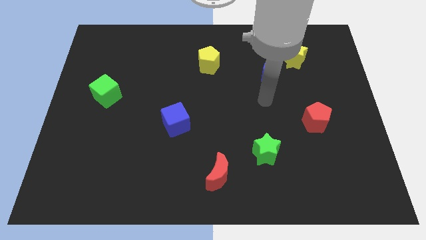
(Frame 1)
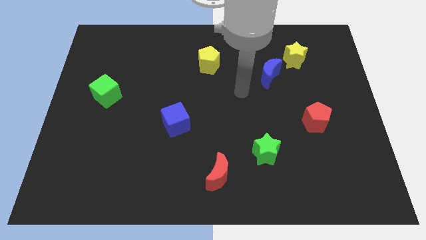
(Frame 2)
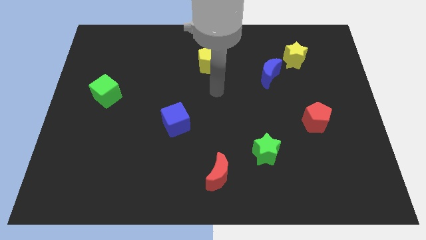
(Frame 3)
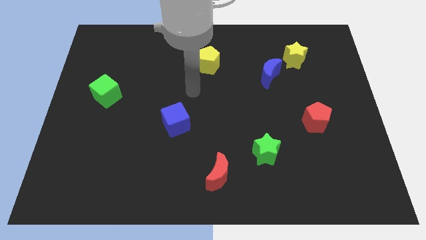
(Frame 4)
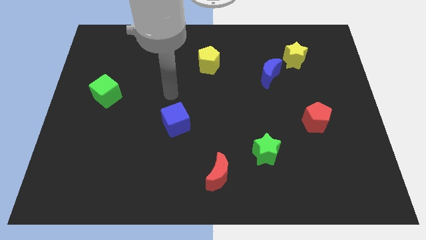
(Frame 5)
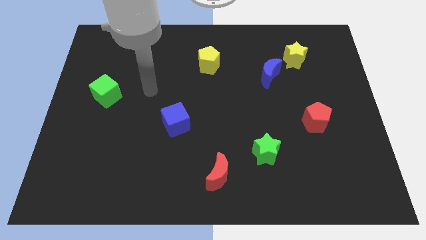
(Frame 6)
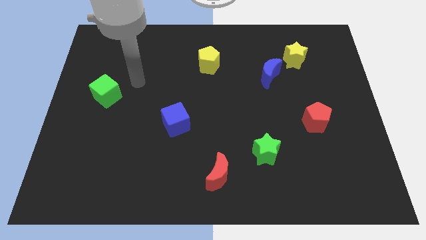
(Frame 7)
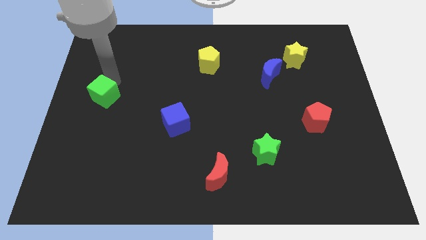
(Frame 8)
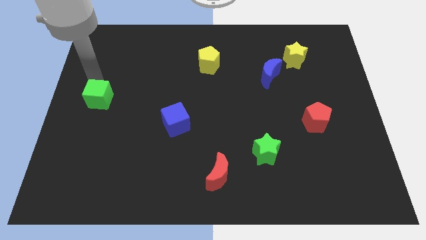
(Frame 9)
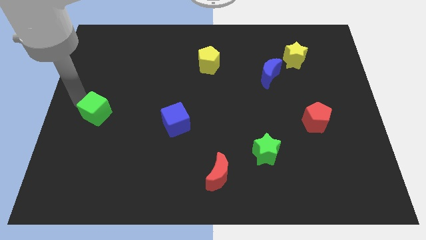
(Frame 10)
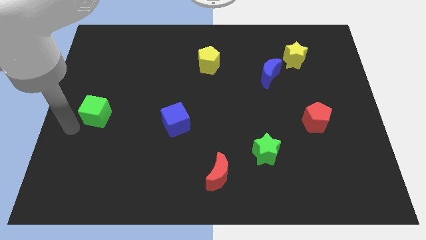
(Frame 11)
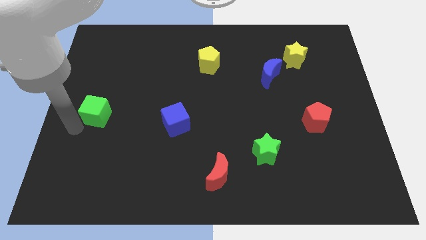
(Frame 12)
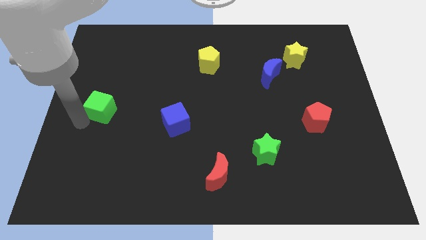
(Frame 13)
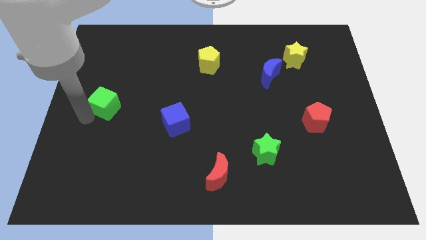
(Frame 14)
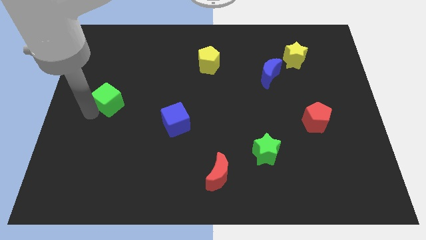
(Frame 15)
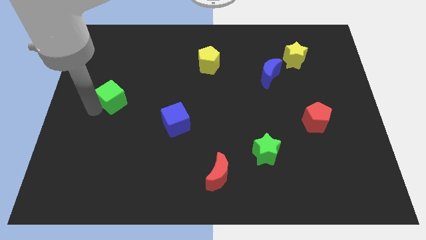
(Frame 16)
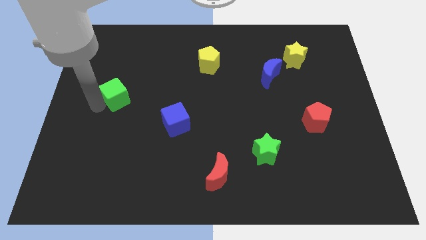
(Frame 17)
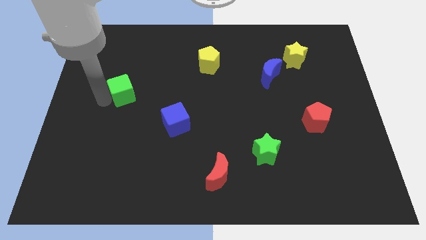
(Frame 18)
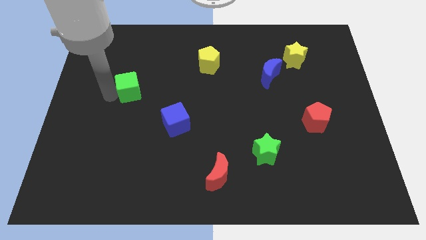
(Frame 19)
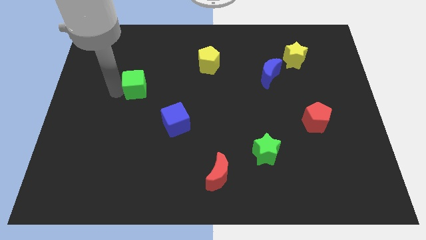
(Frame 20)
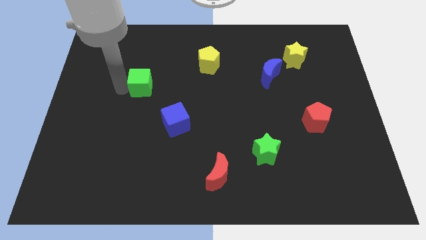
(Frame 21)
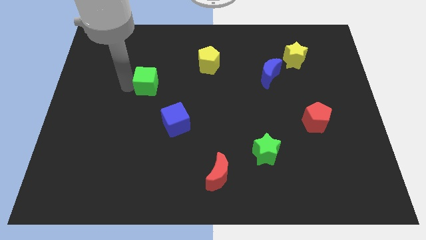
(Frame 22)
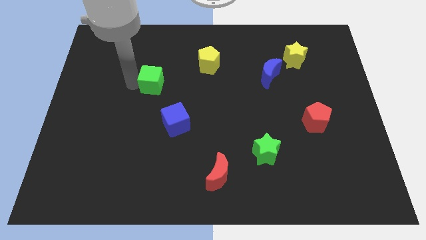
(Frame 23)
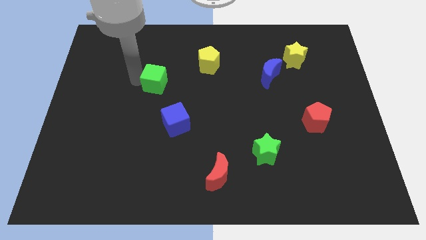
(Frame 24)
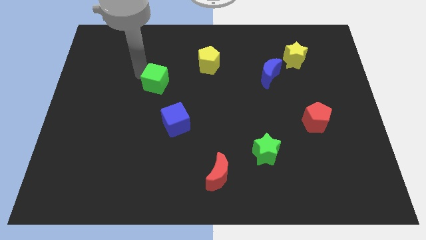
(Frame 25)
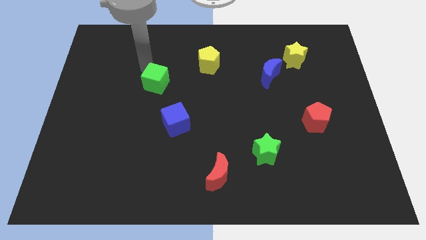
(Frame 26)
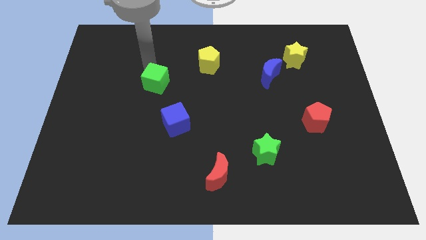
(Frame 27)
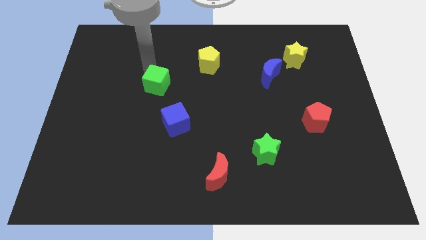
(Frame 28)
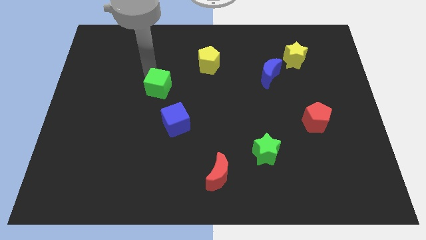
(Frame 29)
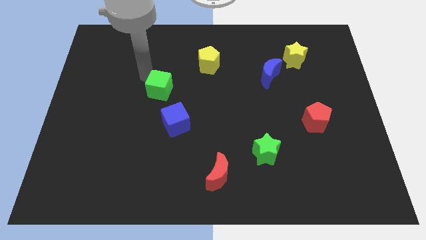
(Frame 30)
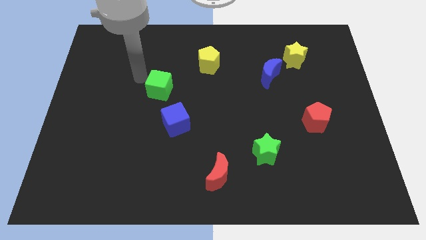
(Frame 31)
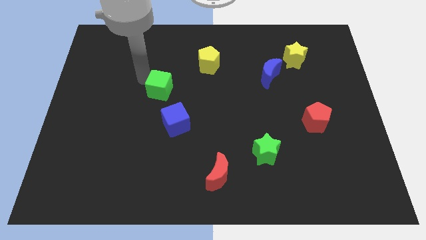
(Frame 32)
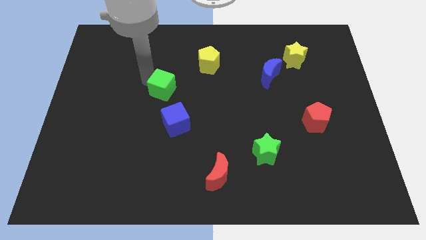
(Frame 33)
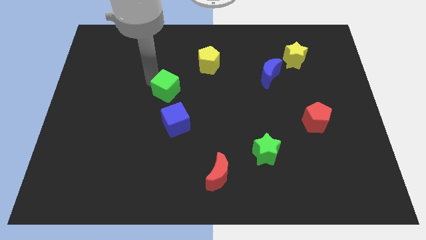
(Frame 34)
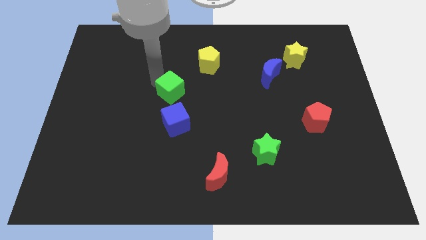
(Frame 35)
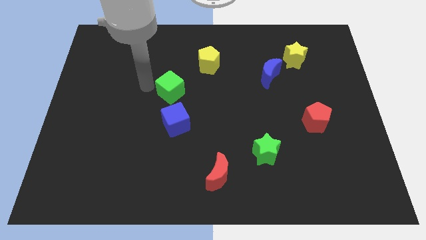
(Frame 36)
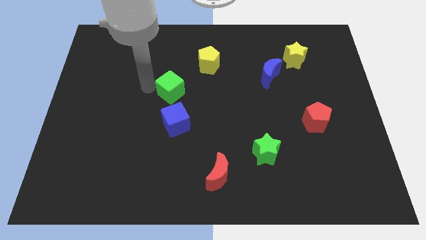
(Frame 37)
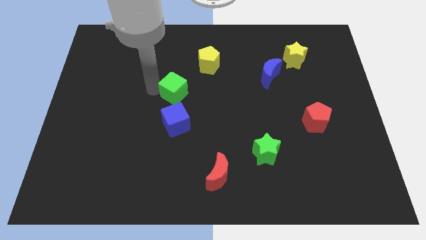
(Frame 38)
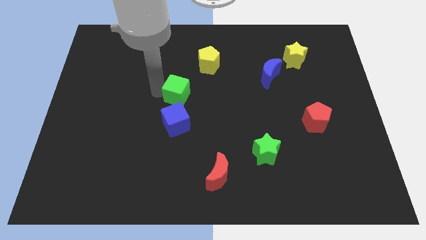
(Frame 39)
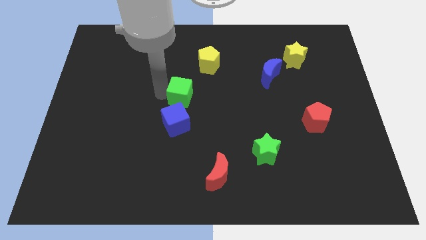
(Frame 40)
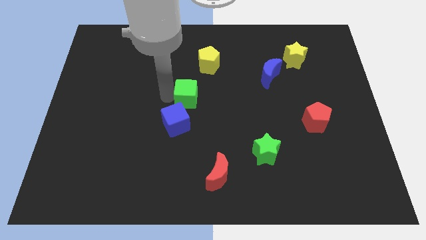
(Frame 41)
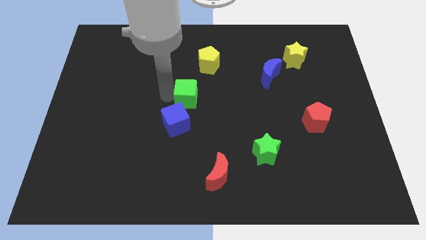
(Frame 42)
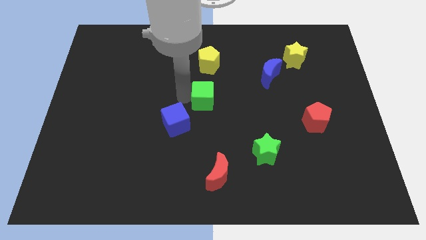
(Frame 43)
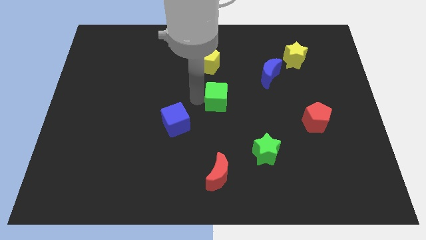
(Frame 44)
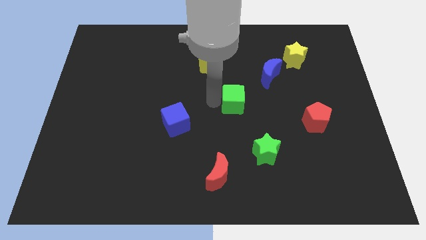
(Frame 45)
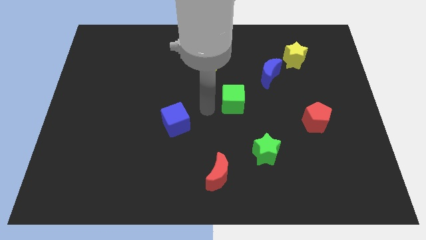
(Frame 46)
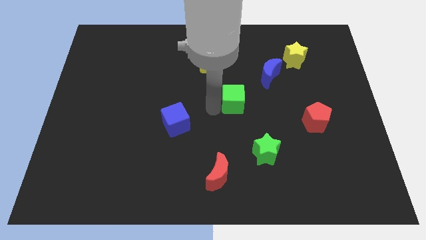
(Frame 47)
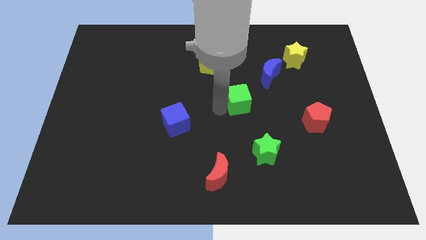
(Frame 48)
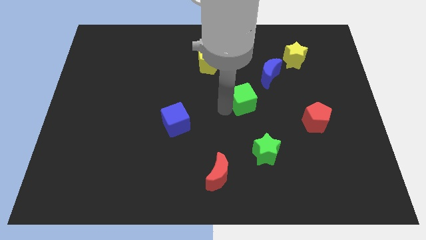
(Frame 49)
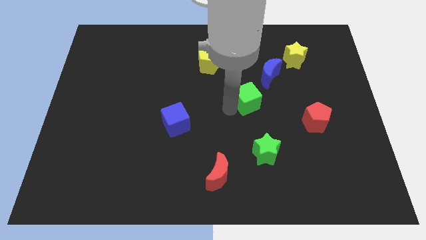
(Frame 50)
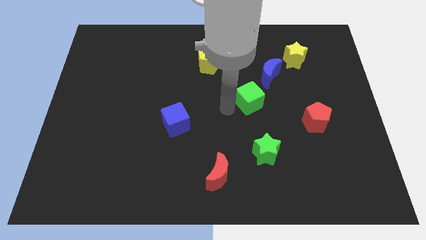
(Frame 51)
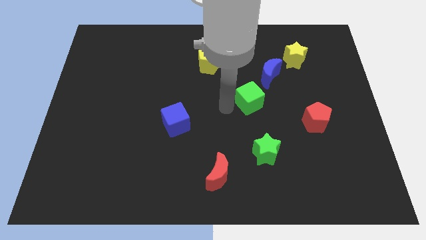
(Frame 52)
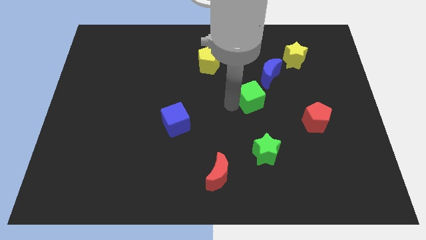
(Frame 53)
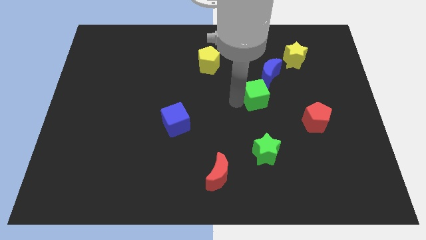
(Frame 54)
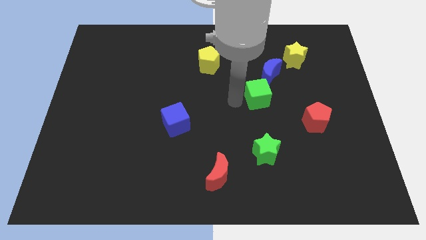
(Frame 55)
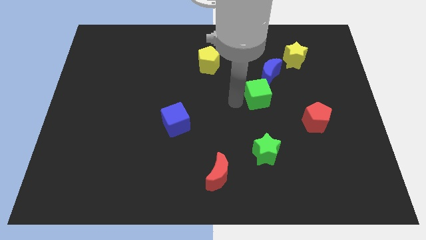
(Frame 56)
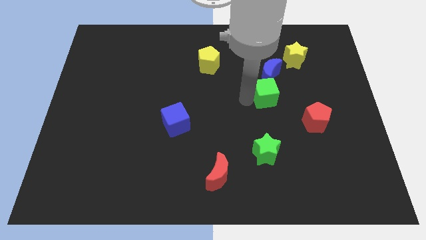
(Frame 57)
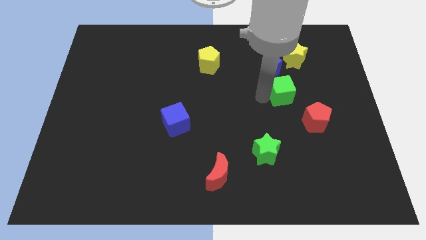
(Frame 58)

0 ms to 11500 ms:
push the green cube below the yellow star
